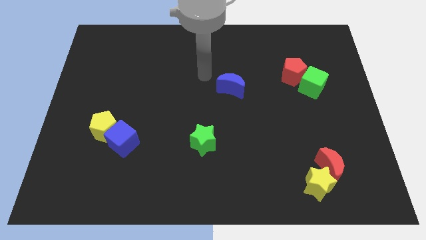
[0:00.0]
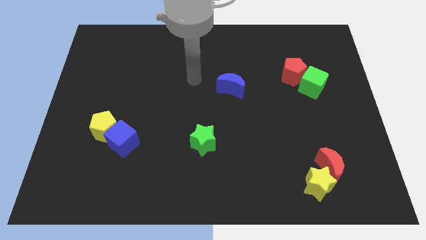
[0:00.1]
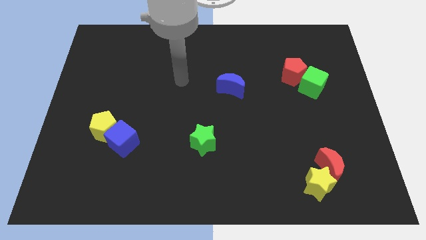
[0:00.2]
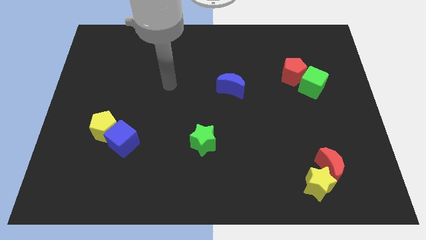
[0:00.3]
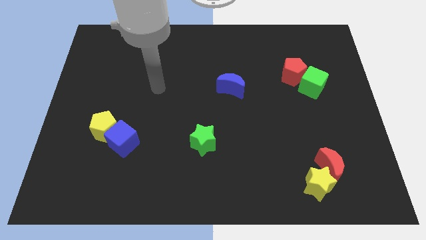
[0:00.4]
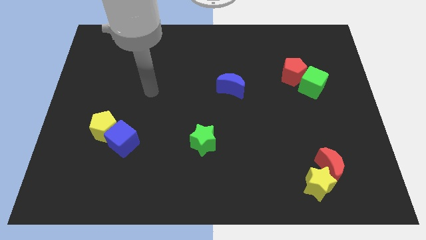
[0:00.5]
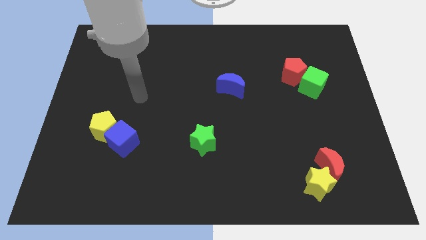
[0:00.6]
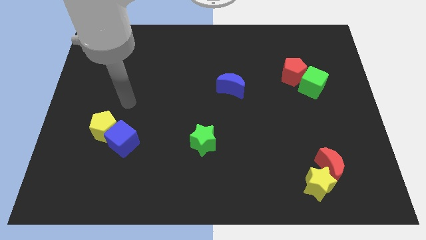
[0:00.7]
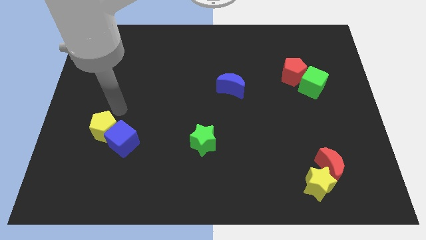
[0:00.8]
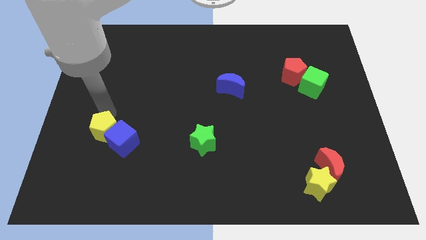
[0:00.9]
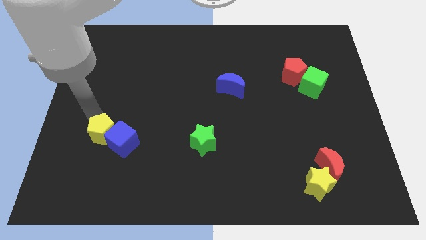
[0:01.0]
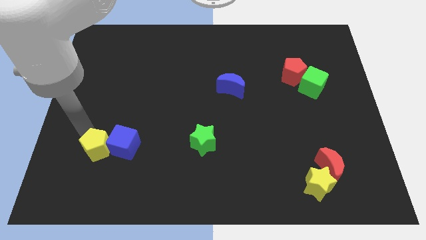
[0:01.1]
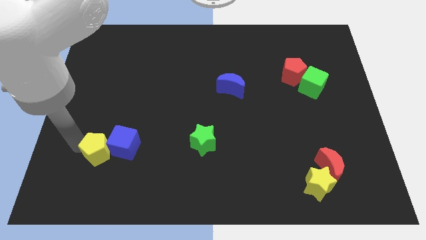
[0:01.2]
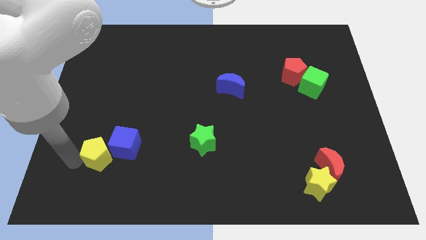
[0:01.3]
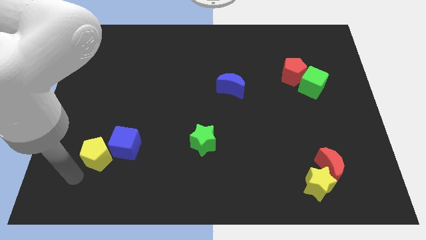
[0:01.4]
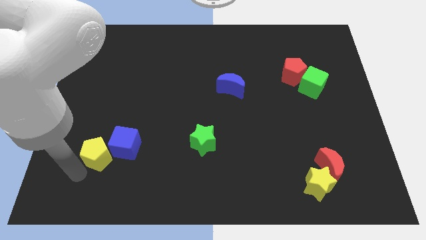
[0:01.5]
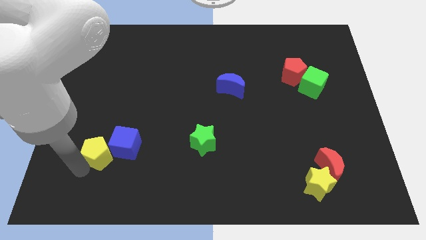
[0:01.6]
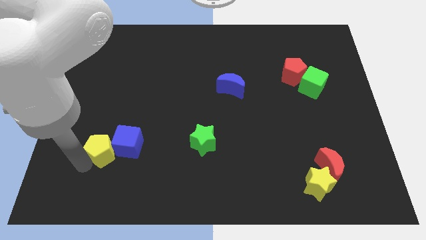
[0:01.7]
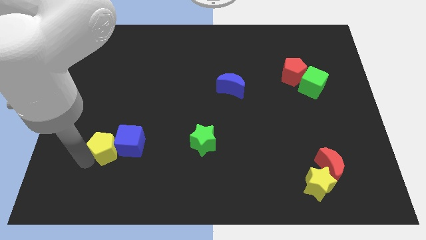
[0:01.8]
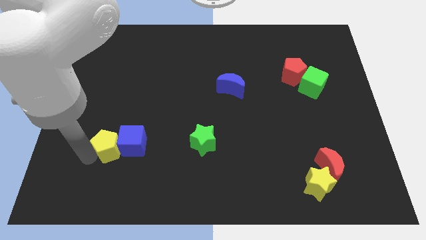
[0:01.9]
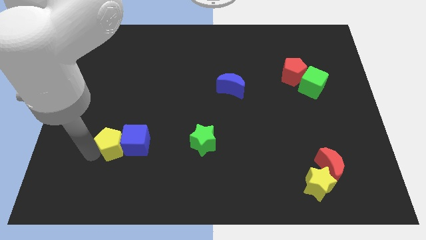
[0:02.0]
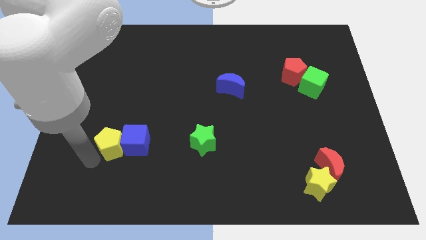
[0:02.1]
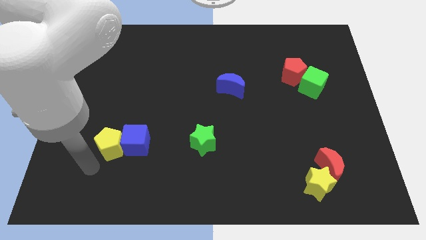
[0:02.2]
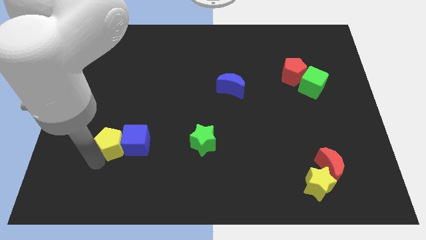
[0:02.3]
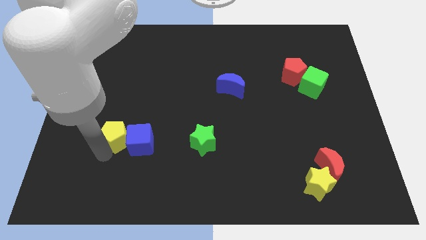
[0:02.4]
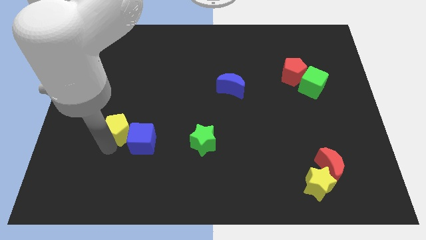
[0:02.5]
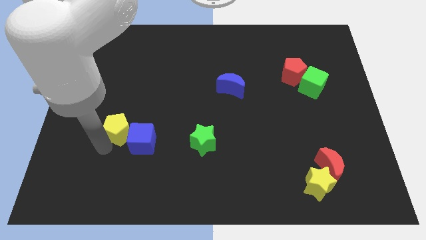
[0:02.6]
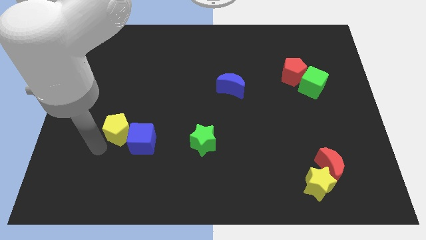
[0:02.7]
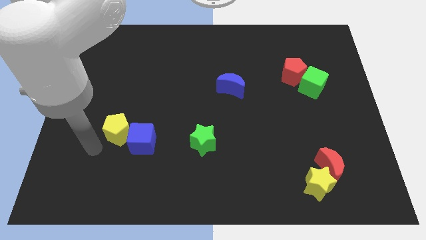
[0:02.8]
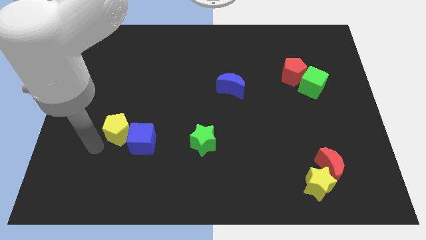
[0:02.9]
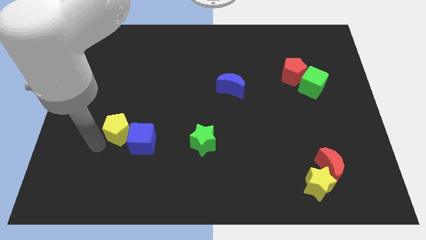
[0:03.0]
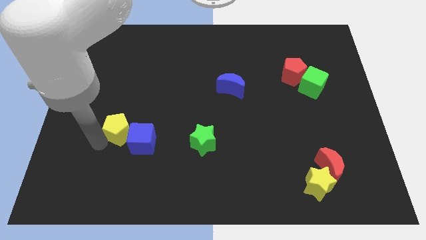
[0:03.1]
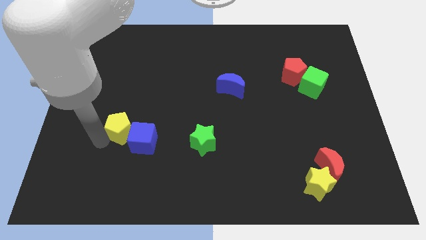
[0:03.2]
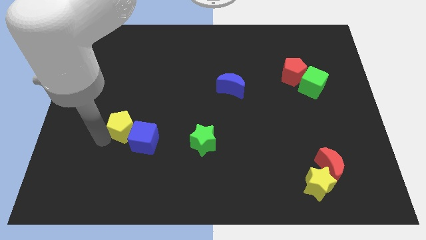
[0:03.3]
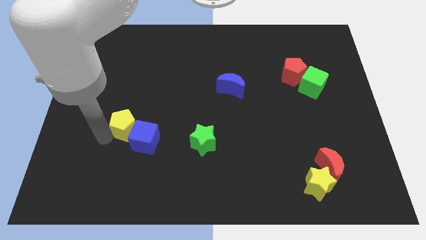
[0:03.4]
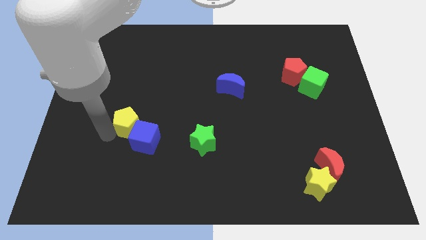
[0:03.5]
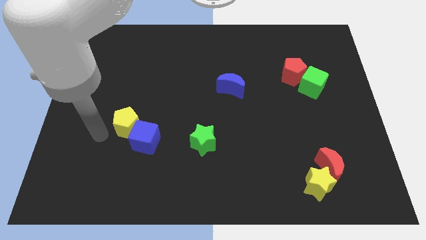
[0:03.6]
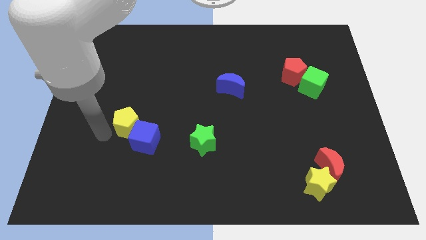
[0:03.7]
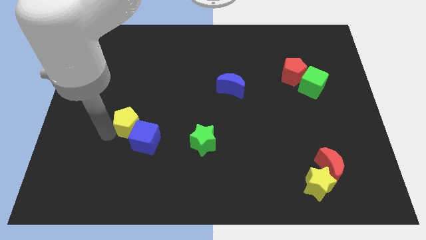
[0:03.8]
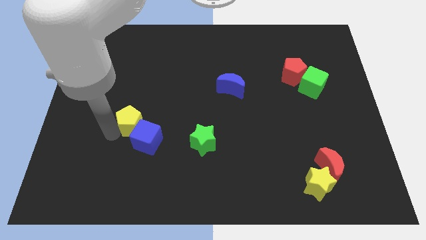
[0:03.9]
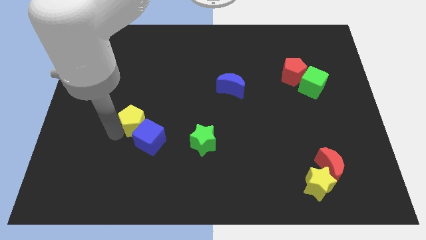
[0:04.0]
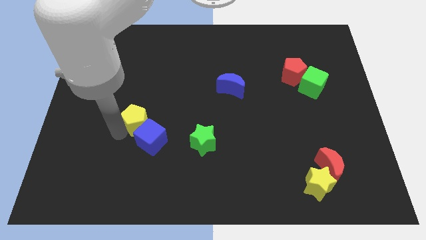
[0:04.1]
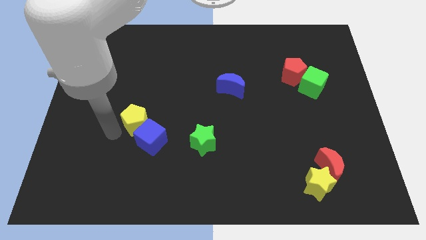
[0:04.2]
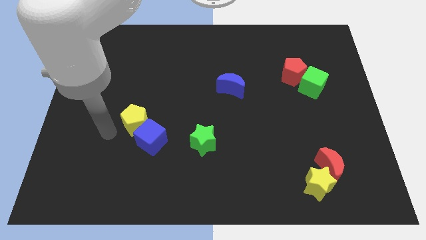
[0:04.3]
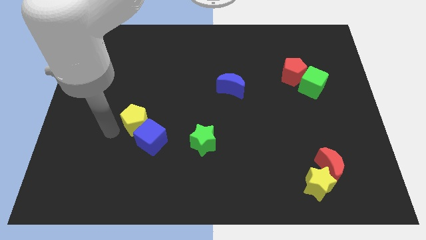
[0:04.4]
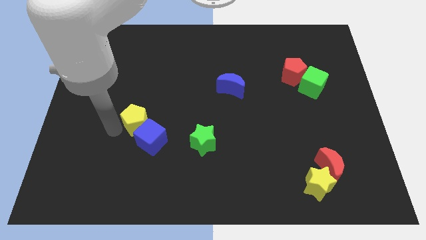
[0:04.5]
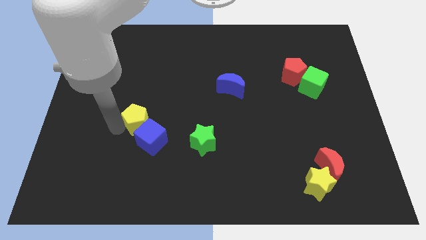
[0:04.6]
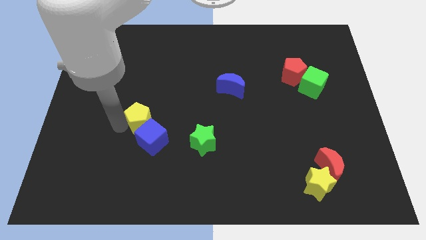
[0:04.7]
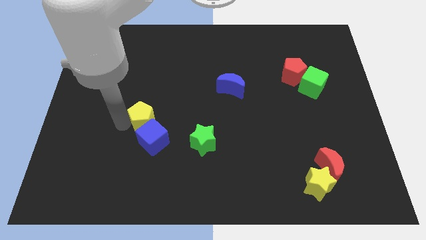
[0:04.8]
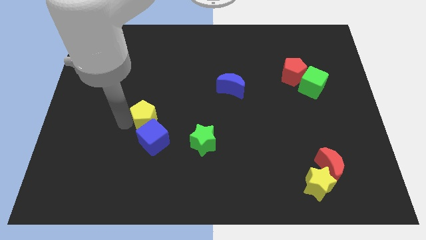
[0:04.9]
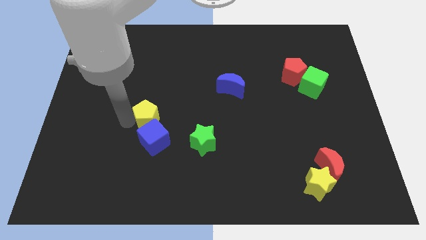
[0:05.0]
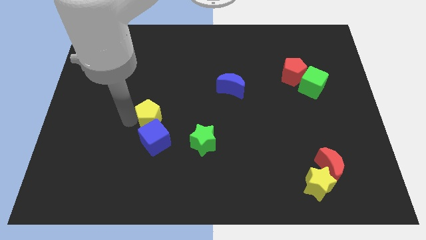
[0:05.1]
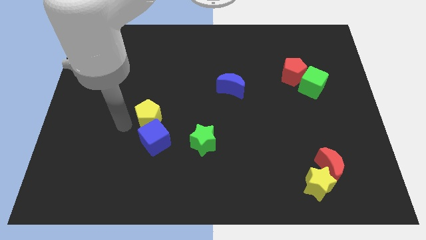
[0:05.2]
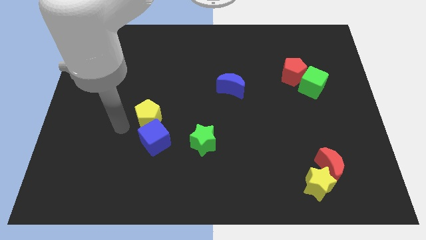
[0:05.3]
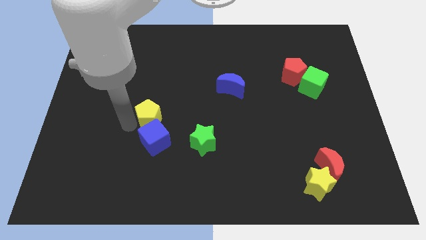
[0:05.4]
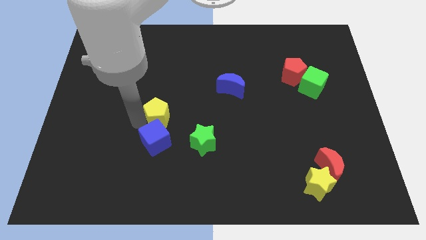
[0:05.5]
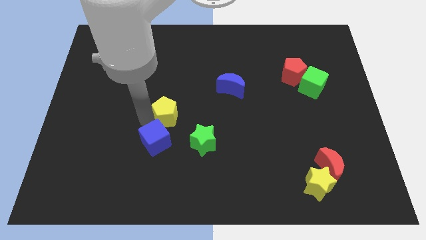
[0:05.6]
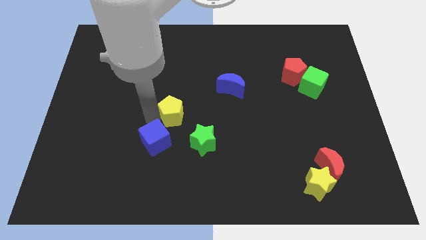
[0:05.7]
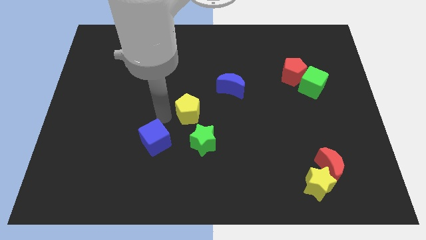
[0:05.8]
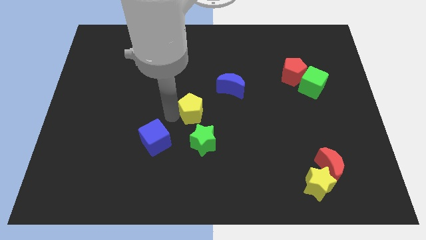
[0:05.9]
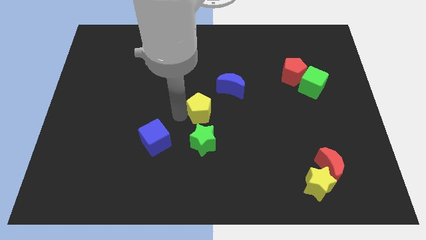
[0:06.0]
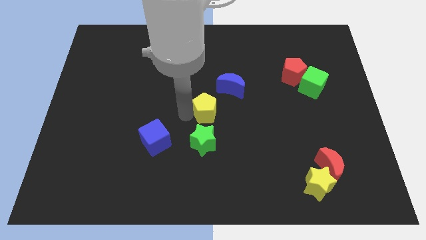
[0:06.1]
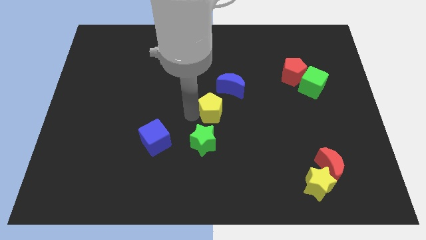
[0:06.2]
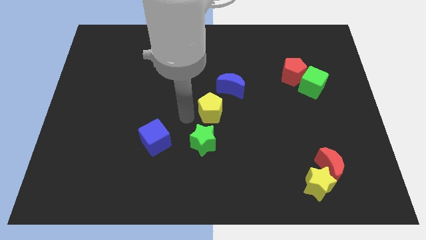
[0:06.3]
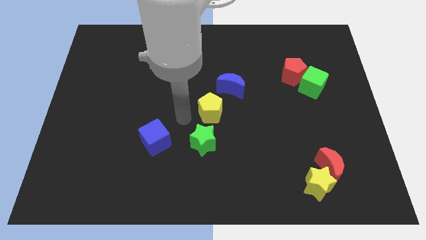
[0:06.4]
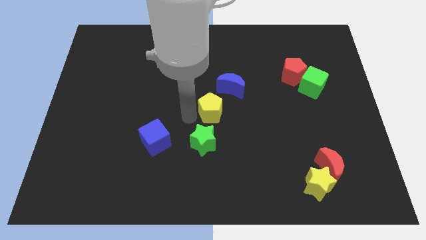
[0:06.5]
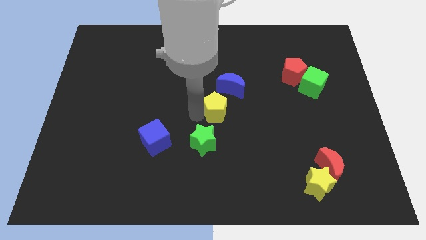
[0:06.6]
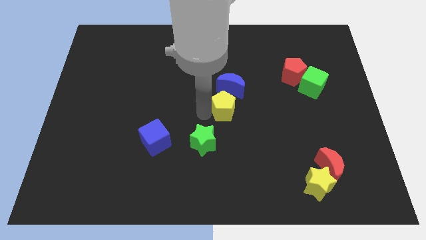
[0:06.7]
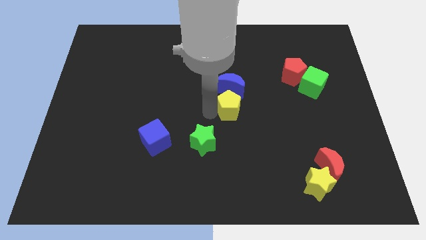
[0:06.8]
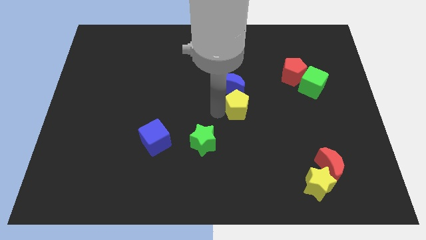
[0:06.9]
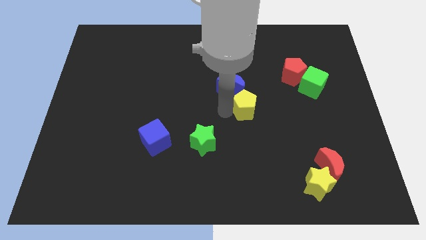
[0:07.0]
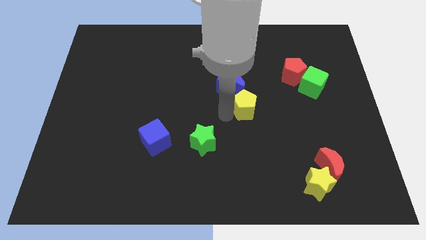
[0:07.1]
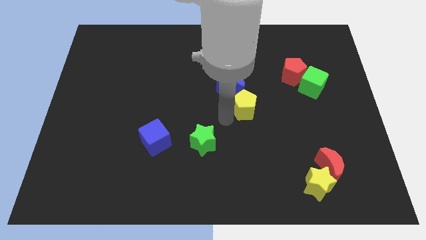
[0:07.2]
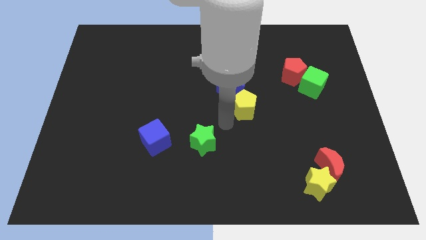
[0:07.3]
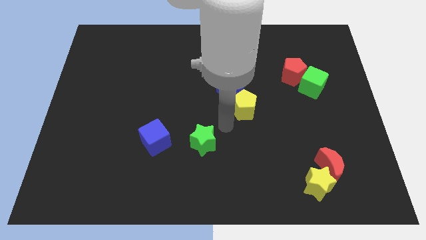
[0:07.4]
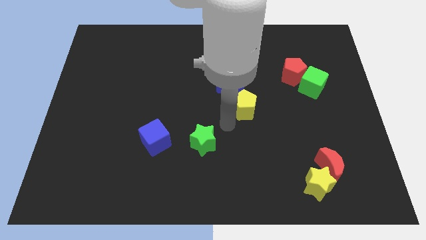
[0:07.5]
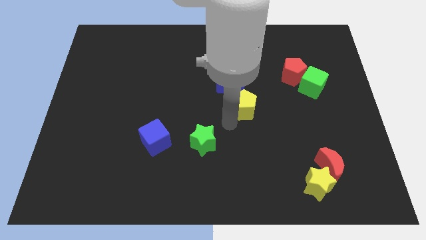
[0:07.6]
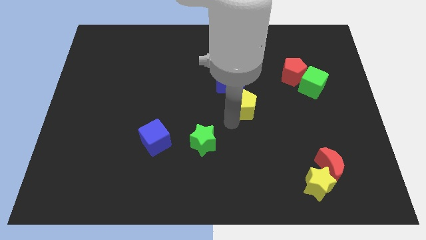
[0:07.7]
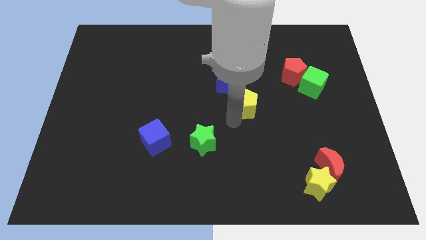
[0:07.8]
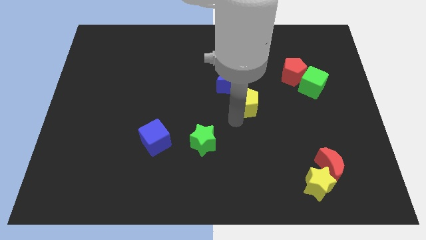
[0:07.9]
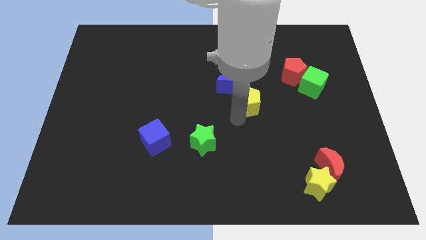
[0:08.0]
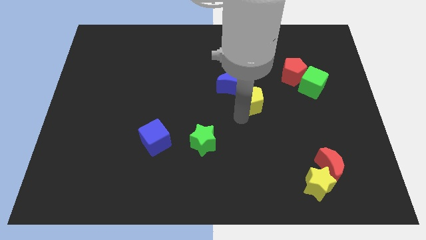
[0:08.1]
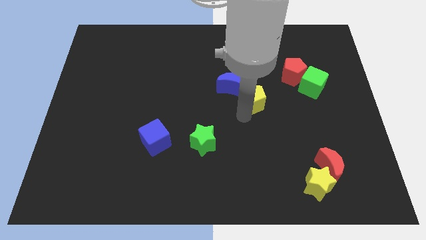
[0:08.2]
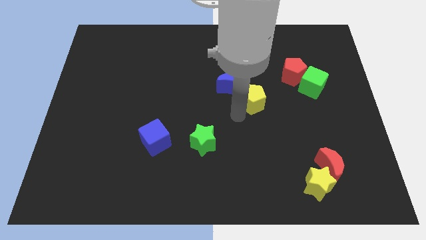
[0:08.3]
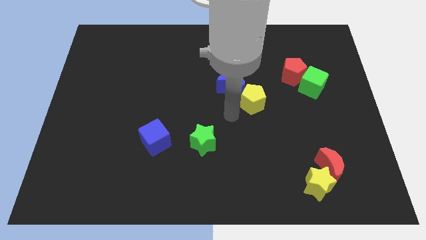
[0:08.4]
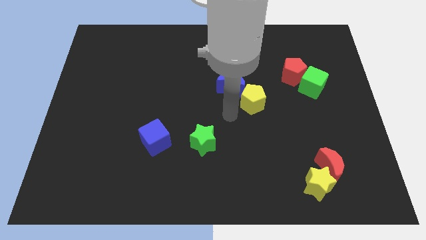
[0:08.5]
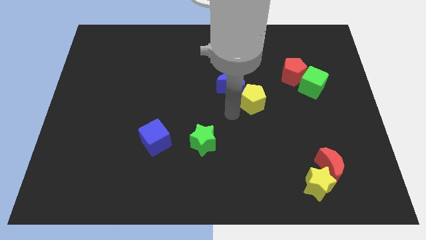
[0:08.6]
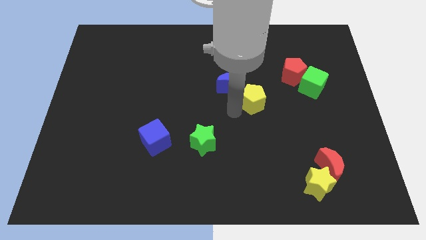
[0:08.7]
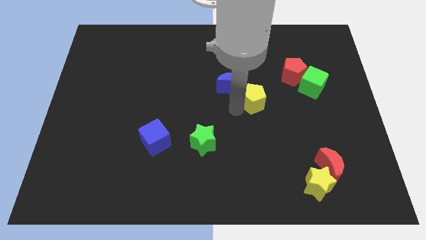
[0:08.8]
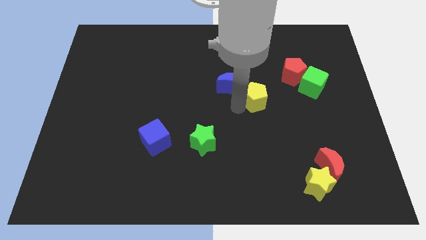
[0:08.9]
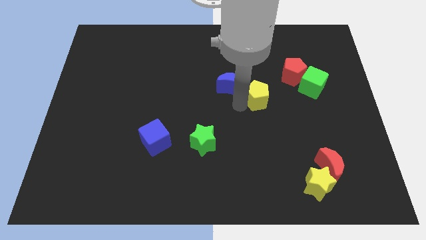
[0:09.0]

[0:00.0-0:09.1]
move the yellow pentagon to the bottom left of the red pentagon
